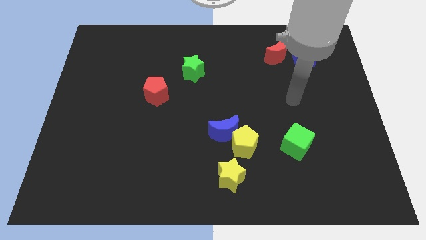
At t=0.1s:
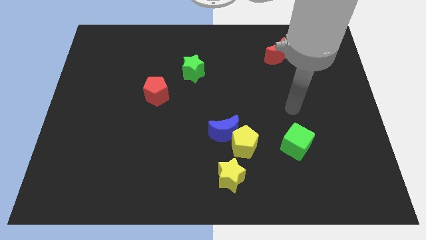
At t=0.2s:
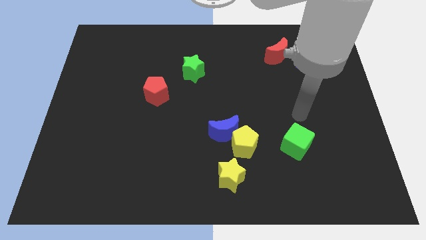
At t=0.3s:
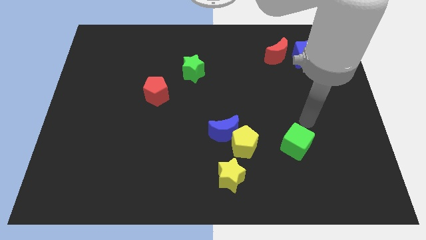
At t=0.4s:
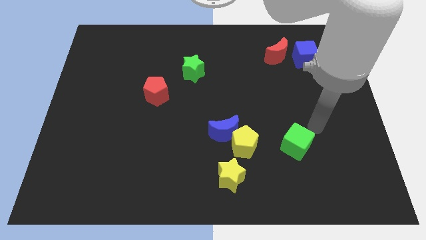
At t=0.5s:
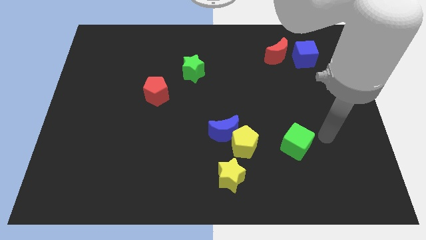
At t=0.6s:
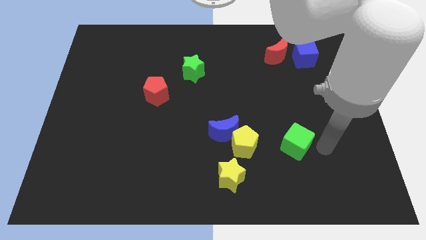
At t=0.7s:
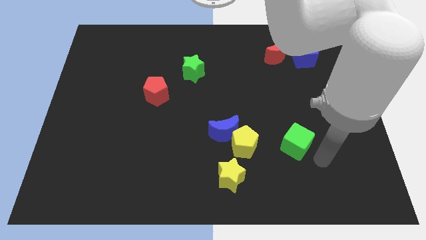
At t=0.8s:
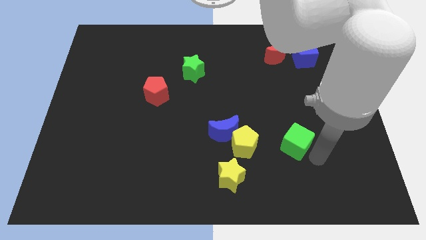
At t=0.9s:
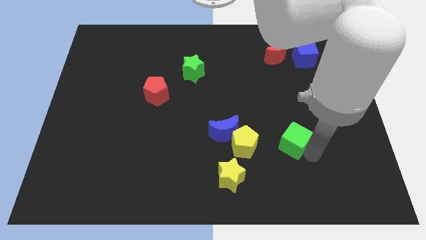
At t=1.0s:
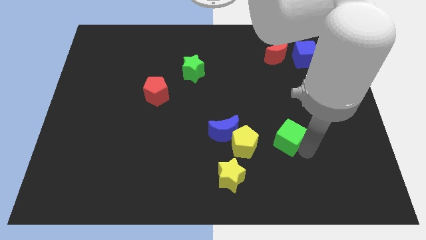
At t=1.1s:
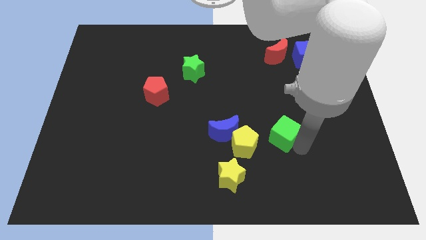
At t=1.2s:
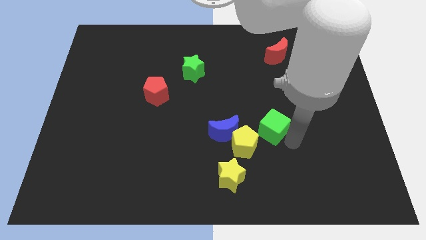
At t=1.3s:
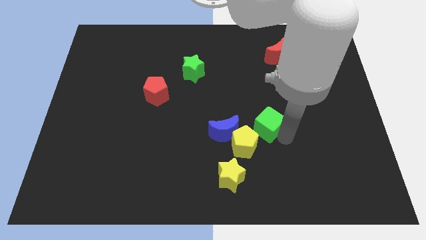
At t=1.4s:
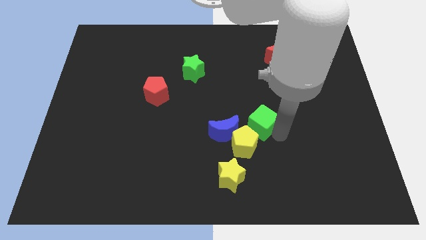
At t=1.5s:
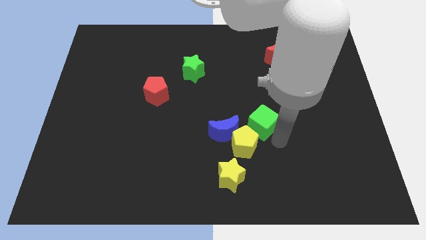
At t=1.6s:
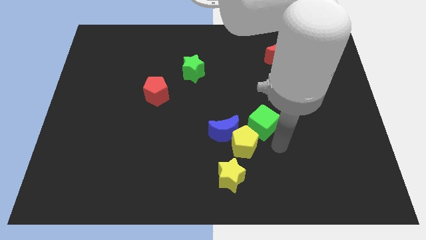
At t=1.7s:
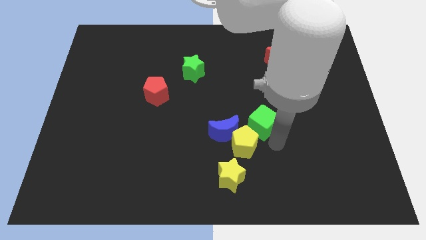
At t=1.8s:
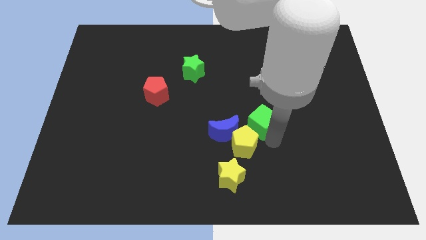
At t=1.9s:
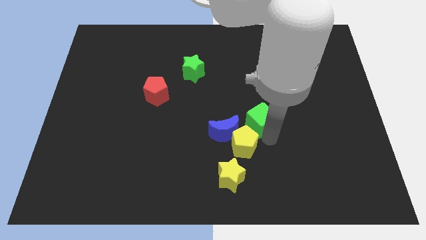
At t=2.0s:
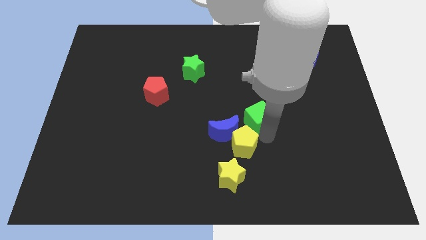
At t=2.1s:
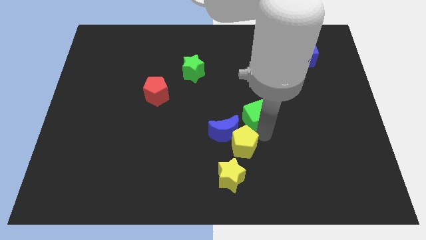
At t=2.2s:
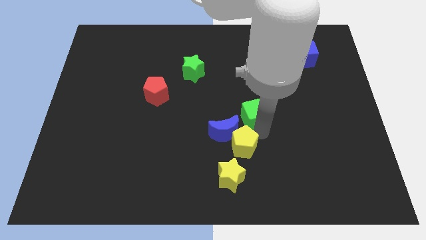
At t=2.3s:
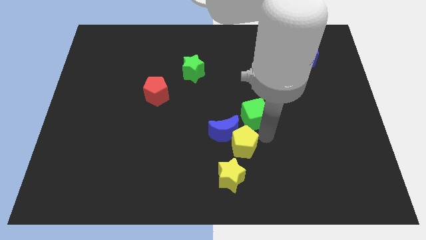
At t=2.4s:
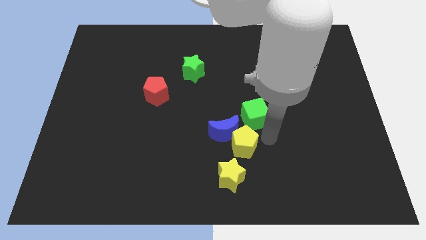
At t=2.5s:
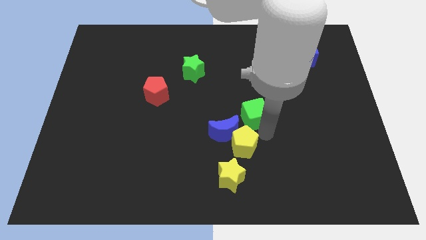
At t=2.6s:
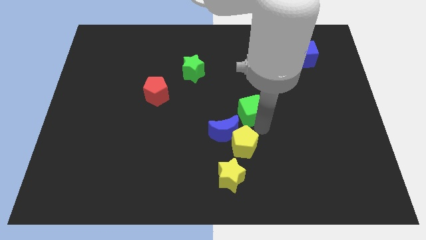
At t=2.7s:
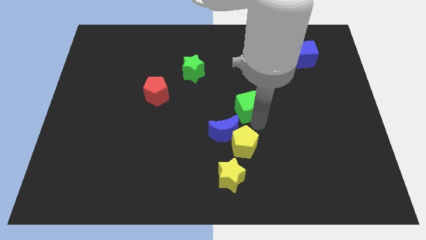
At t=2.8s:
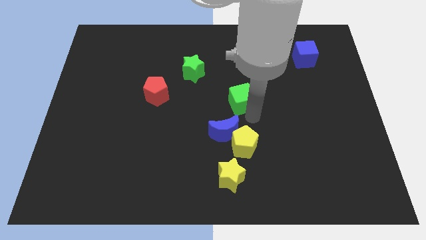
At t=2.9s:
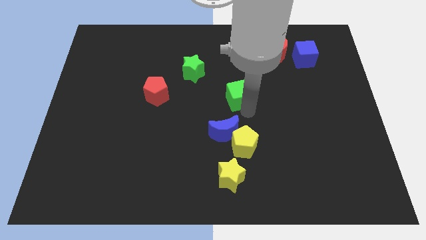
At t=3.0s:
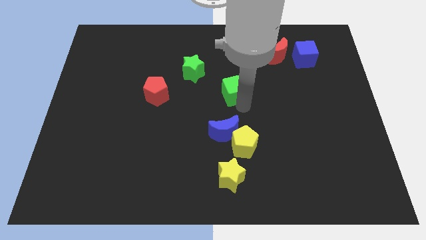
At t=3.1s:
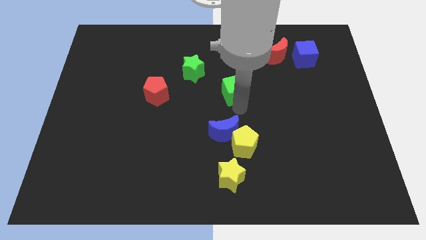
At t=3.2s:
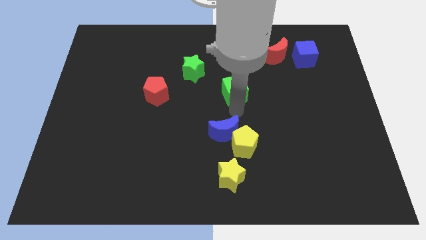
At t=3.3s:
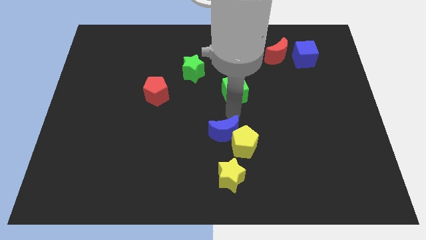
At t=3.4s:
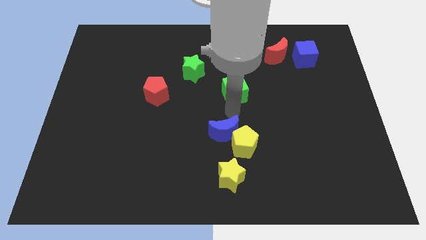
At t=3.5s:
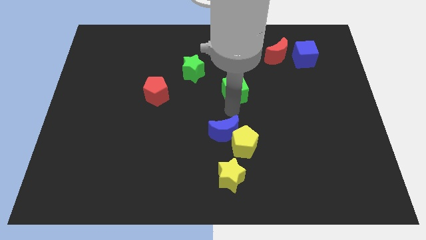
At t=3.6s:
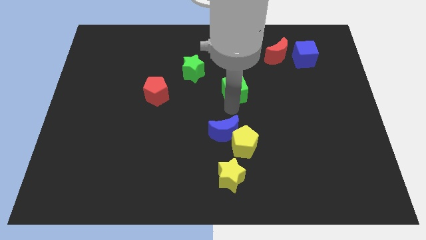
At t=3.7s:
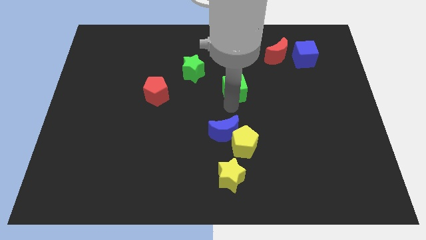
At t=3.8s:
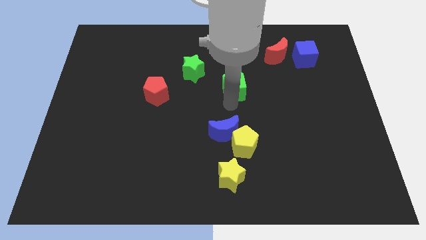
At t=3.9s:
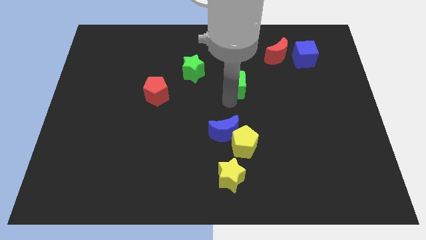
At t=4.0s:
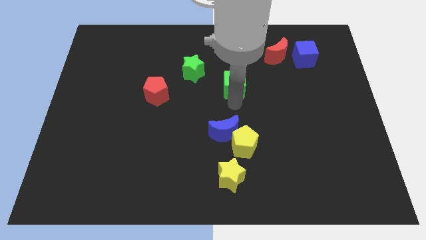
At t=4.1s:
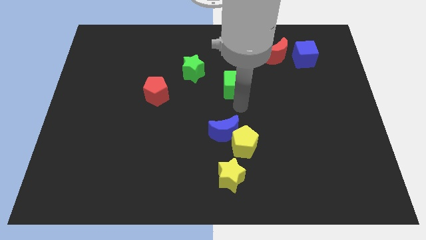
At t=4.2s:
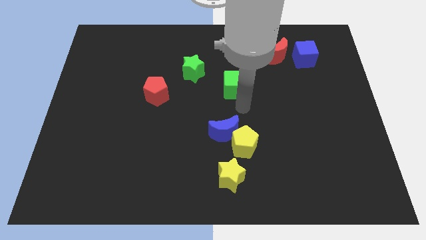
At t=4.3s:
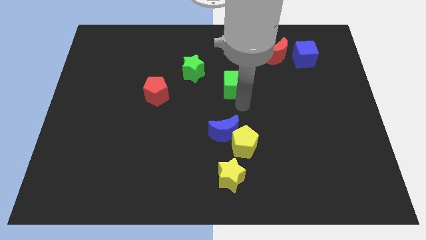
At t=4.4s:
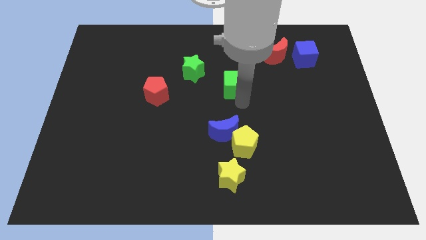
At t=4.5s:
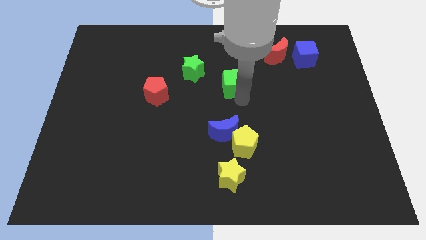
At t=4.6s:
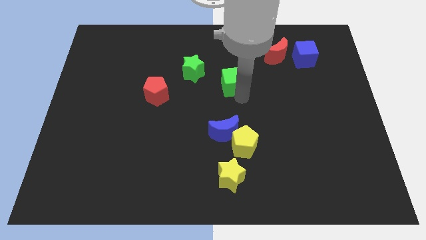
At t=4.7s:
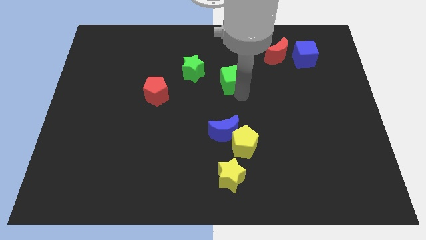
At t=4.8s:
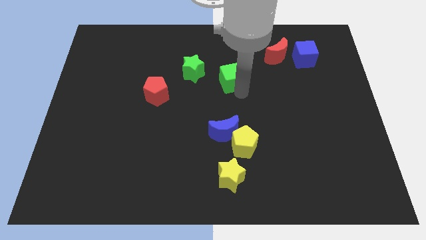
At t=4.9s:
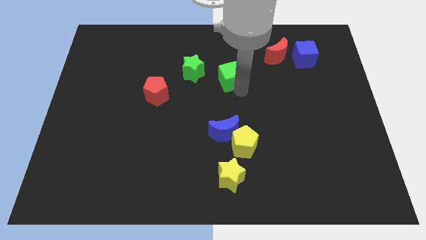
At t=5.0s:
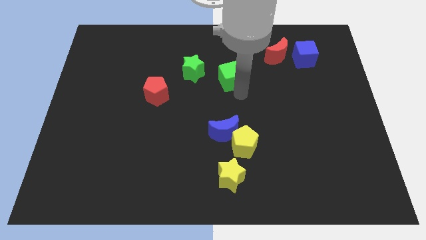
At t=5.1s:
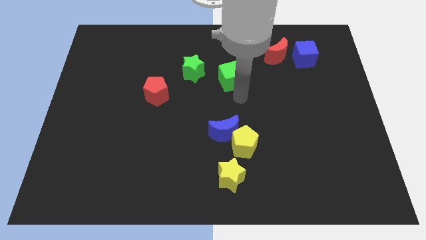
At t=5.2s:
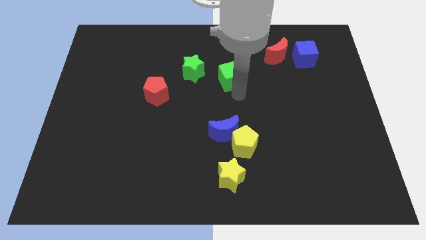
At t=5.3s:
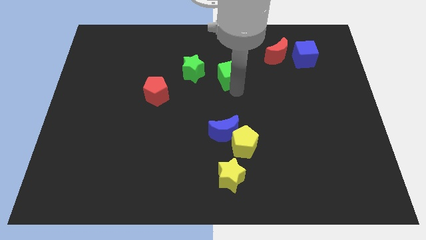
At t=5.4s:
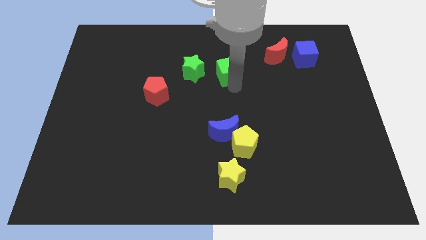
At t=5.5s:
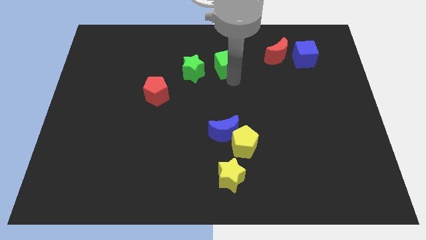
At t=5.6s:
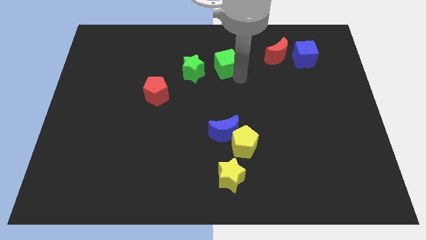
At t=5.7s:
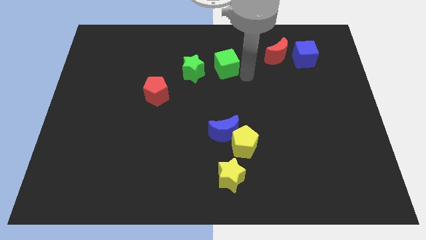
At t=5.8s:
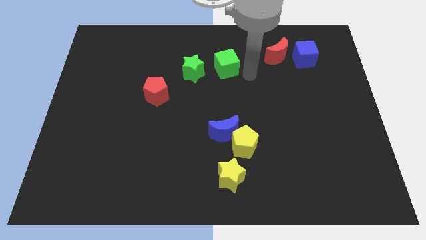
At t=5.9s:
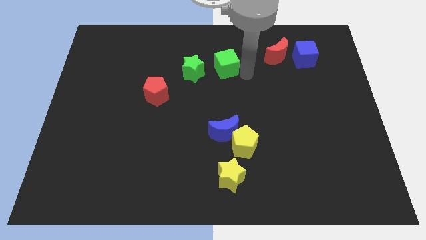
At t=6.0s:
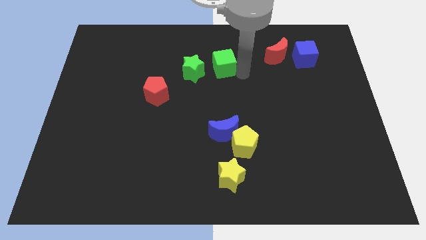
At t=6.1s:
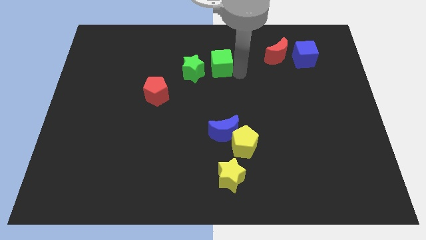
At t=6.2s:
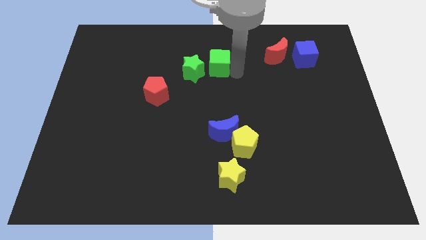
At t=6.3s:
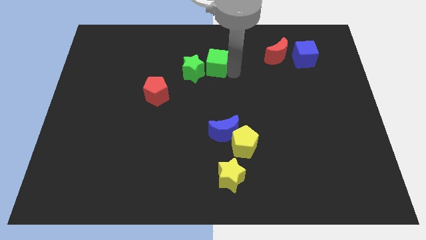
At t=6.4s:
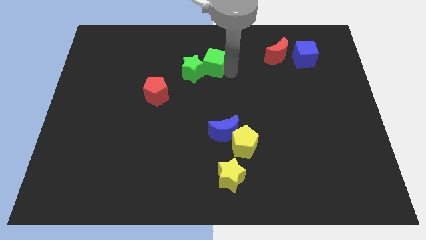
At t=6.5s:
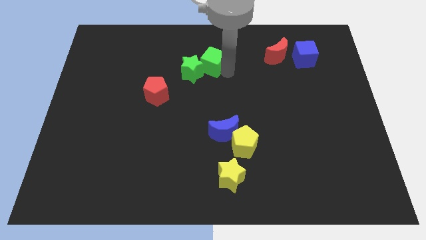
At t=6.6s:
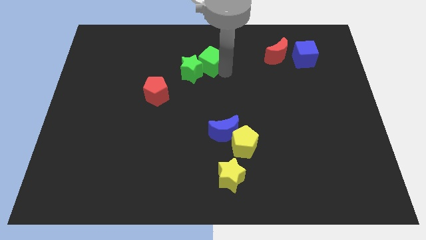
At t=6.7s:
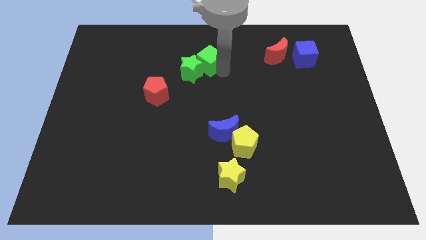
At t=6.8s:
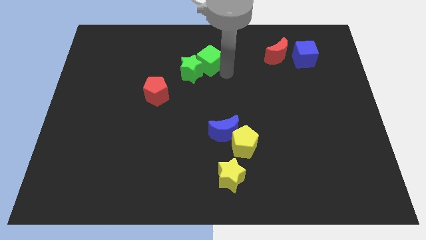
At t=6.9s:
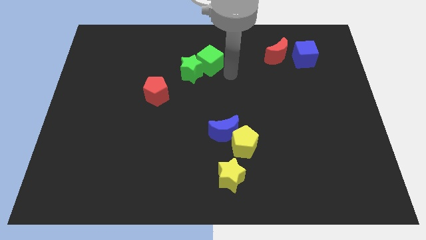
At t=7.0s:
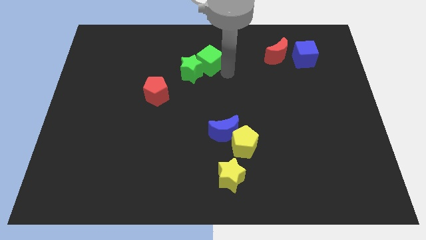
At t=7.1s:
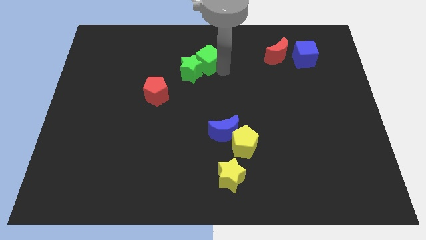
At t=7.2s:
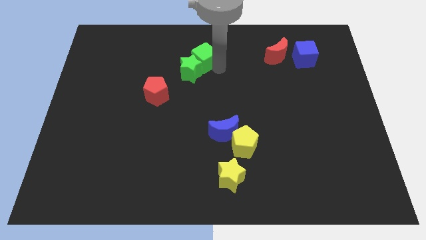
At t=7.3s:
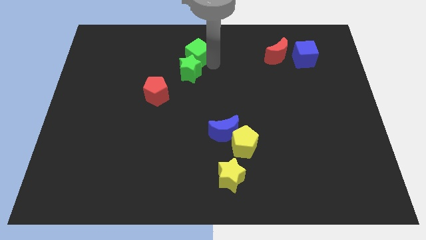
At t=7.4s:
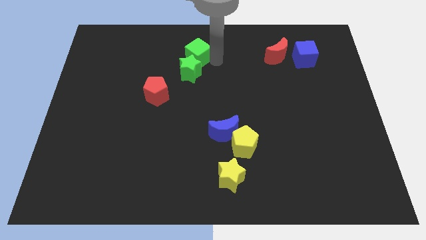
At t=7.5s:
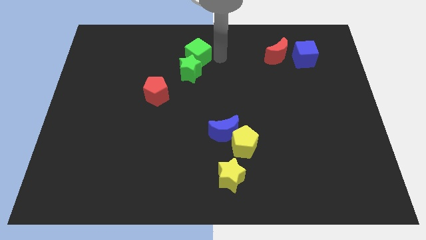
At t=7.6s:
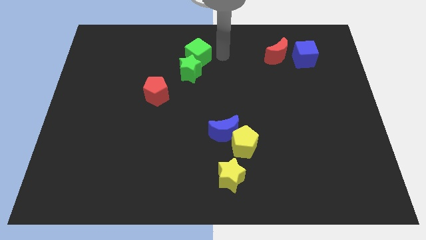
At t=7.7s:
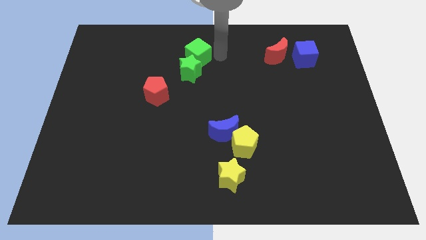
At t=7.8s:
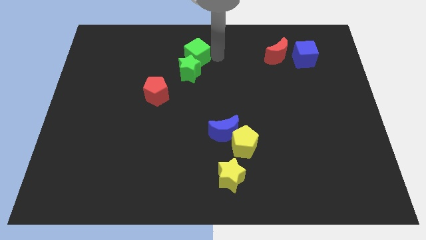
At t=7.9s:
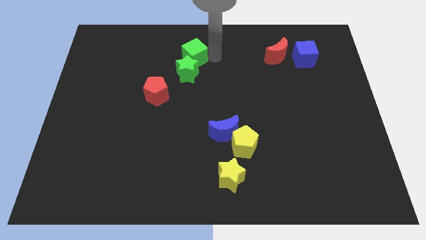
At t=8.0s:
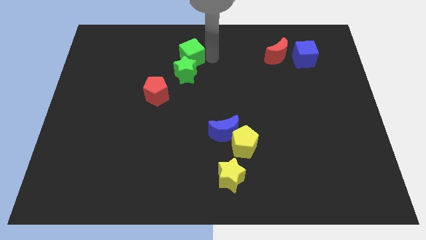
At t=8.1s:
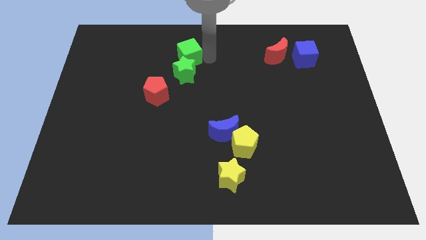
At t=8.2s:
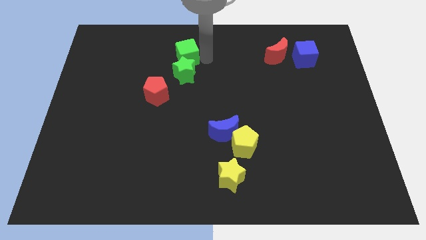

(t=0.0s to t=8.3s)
slide the green cube to the top left side of the green star
